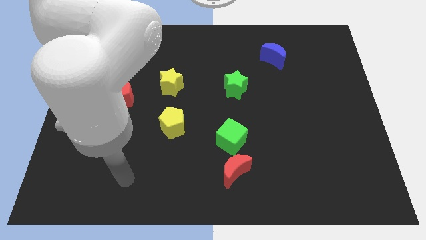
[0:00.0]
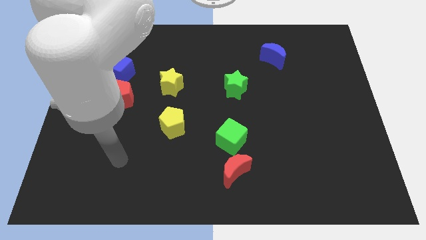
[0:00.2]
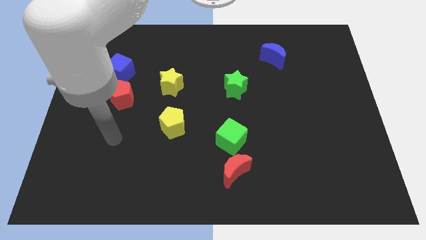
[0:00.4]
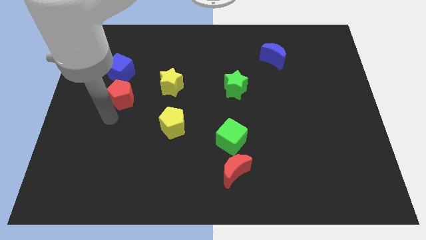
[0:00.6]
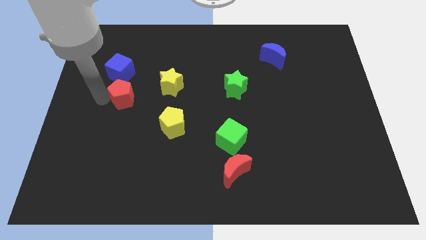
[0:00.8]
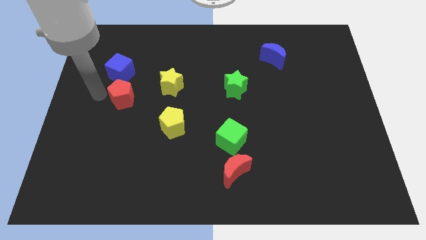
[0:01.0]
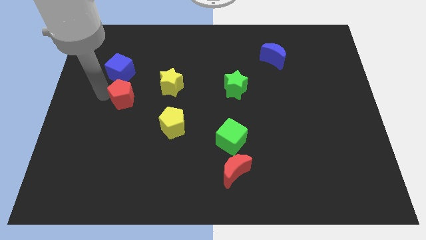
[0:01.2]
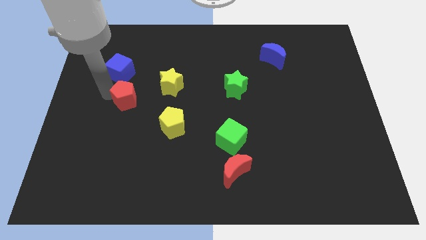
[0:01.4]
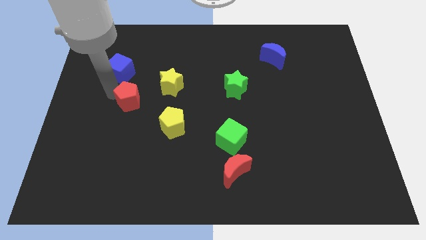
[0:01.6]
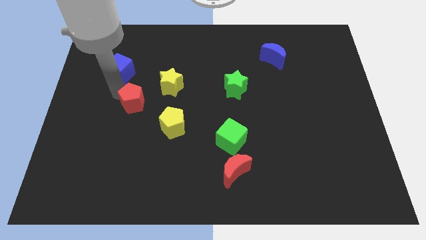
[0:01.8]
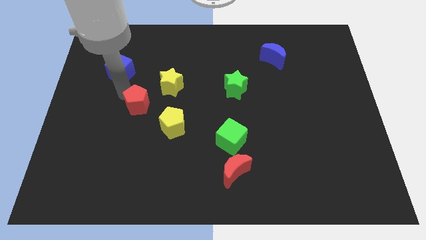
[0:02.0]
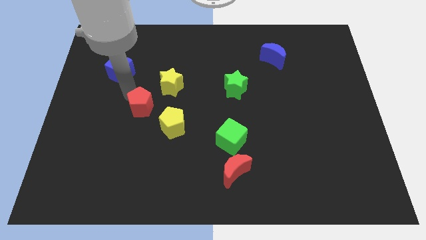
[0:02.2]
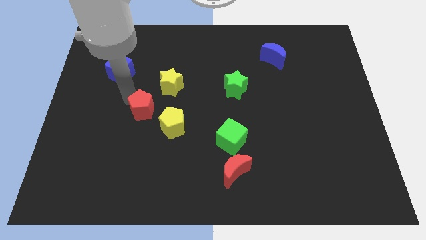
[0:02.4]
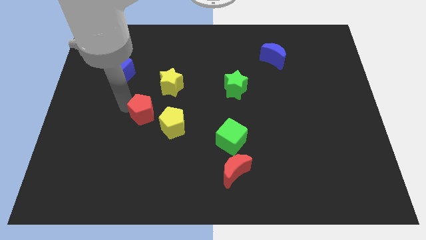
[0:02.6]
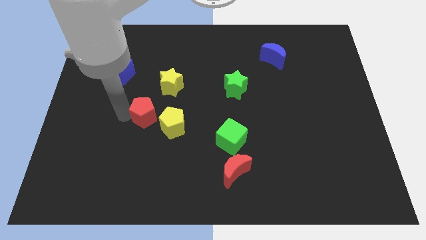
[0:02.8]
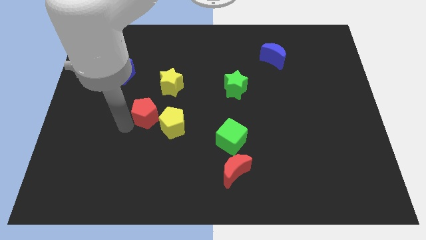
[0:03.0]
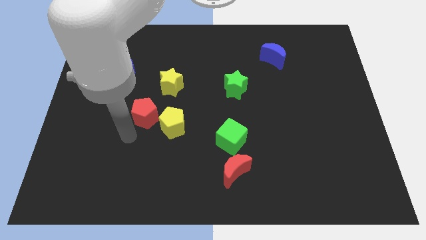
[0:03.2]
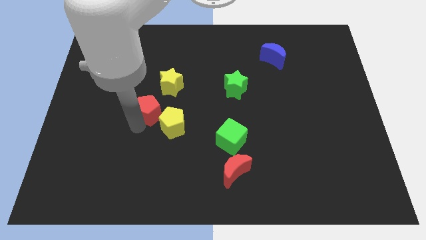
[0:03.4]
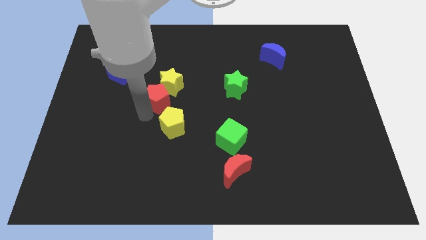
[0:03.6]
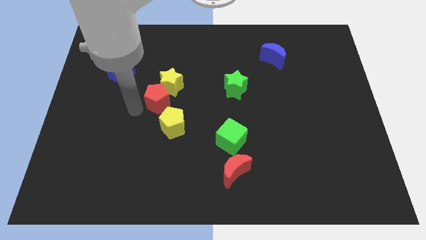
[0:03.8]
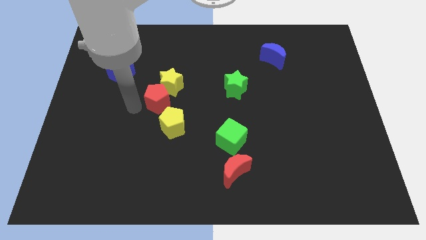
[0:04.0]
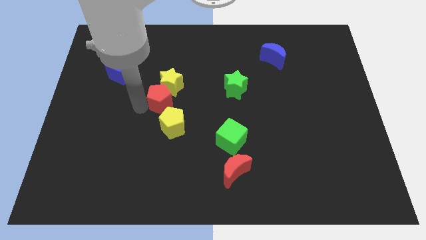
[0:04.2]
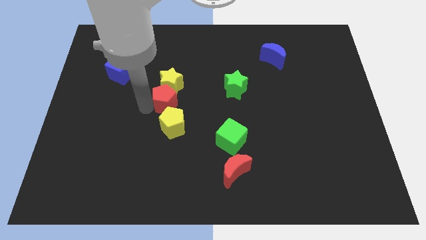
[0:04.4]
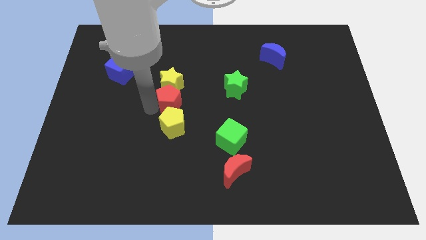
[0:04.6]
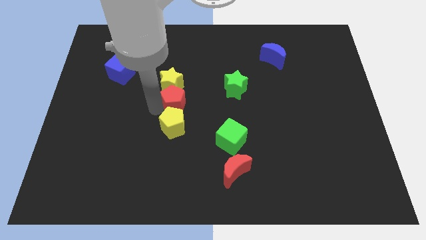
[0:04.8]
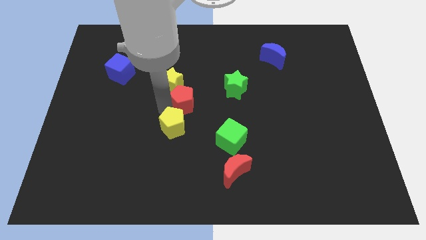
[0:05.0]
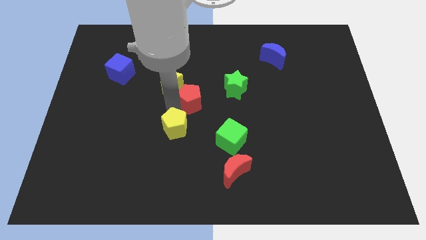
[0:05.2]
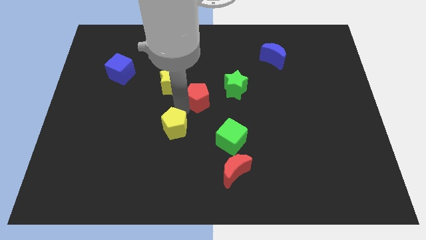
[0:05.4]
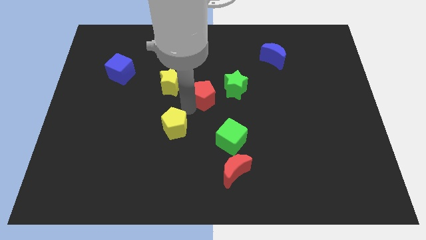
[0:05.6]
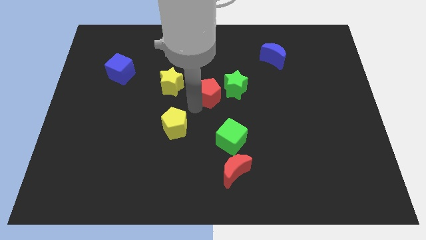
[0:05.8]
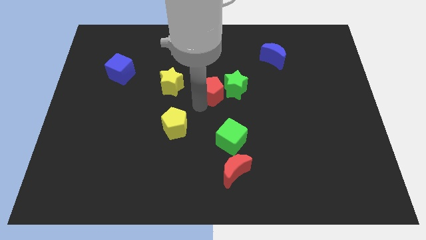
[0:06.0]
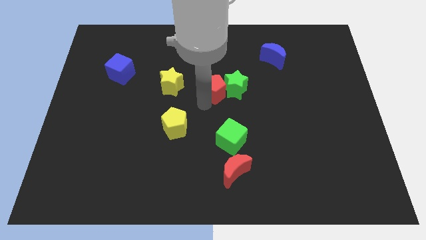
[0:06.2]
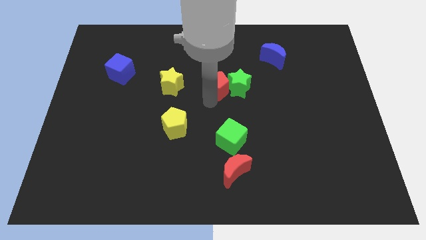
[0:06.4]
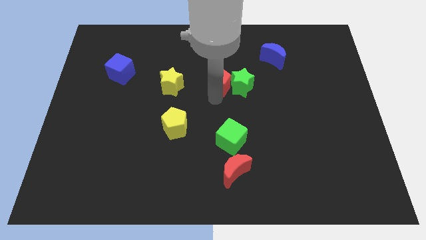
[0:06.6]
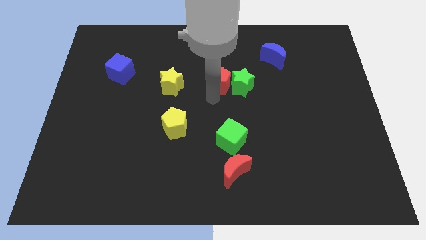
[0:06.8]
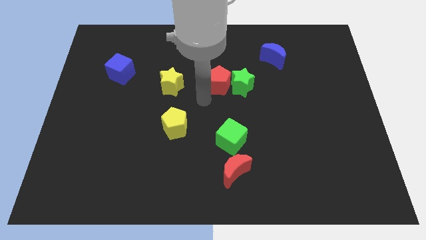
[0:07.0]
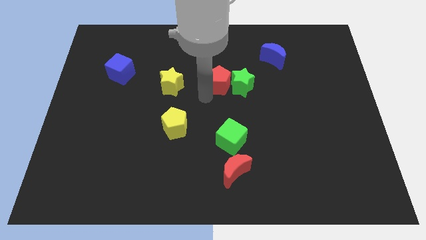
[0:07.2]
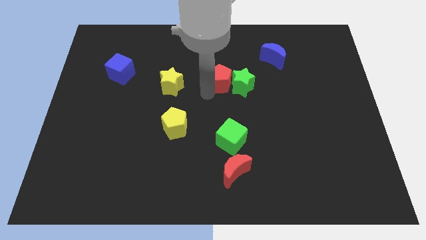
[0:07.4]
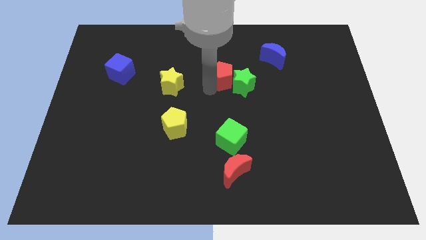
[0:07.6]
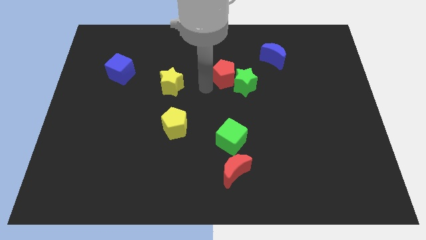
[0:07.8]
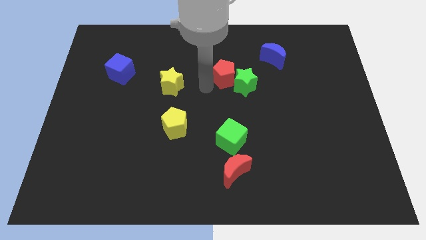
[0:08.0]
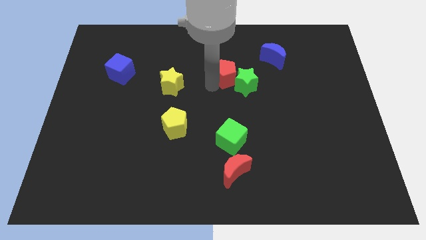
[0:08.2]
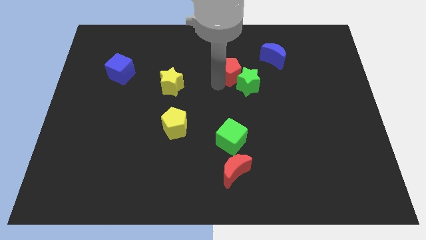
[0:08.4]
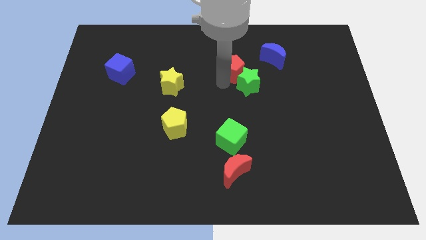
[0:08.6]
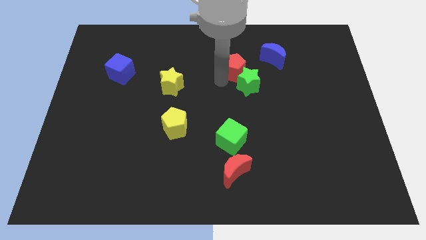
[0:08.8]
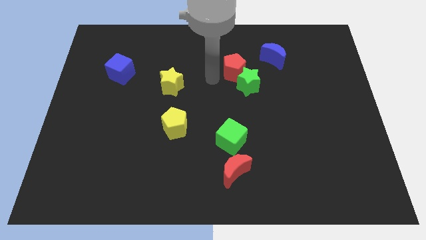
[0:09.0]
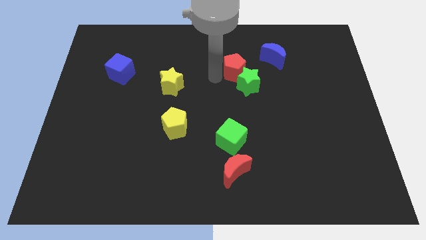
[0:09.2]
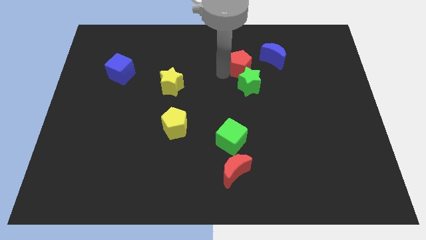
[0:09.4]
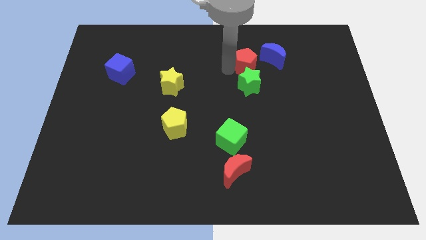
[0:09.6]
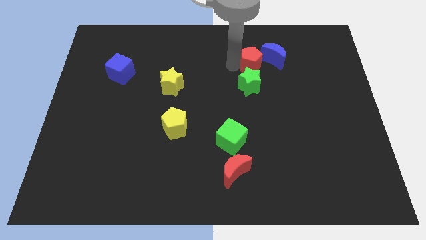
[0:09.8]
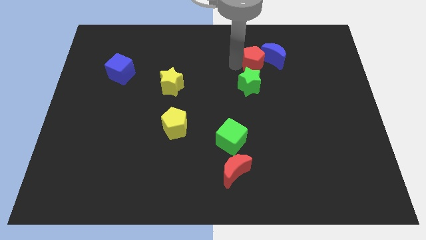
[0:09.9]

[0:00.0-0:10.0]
push the red pentagon next to the blue moon

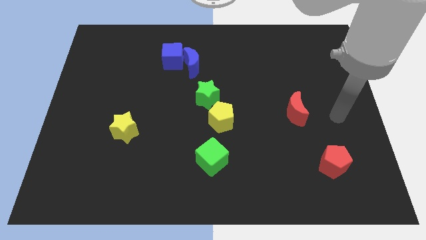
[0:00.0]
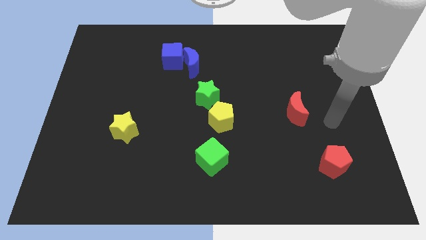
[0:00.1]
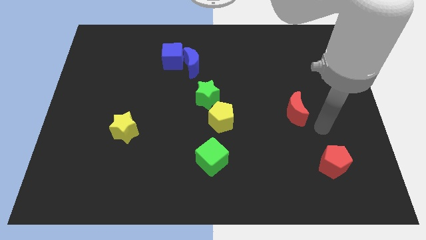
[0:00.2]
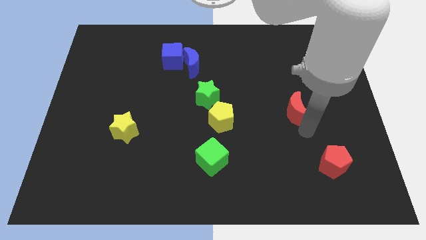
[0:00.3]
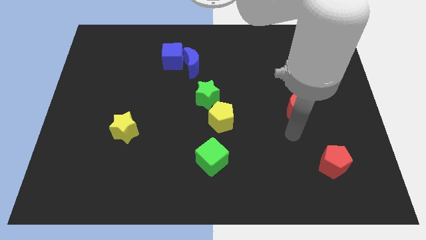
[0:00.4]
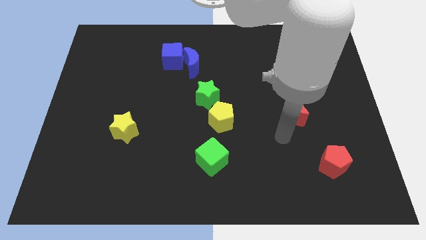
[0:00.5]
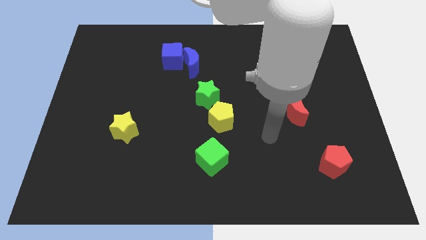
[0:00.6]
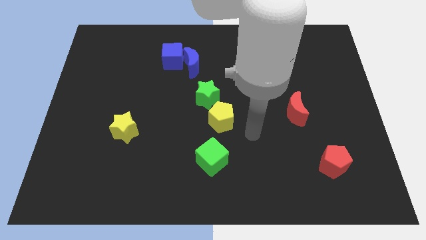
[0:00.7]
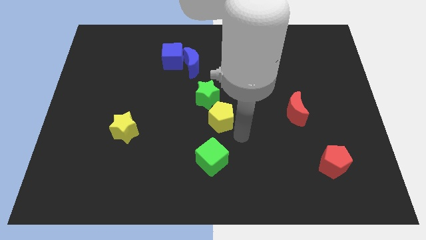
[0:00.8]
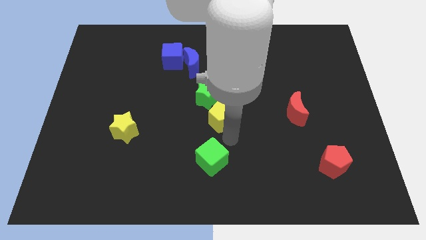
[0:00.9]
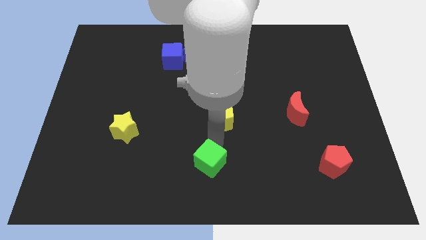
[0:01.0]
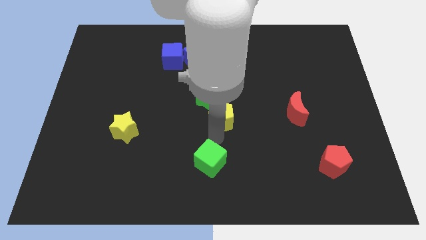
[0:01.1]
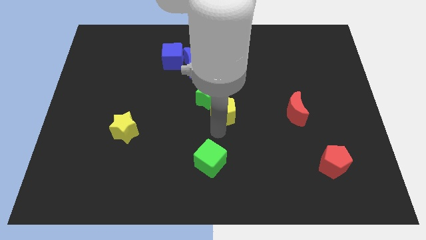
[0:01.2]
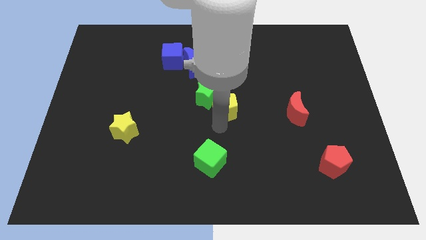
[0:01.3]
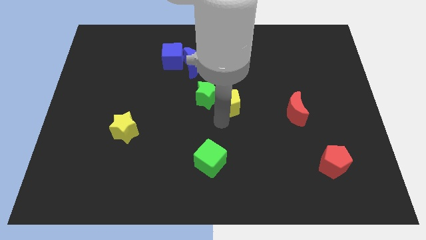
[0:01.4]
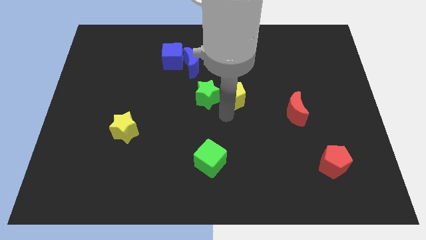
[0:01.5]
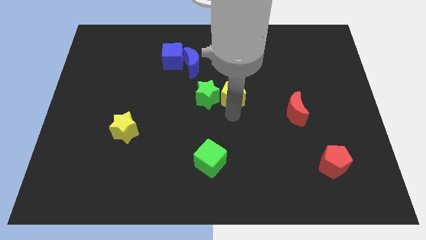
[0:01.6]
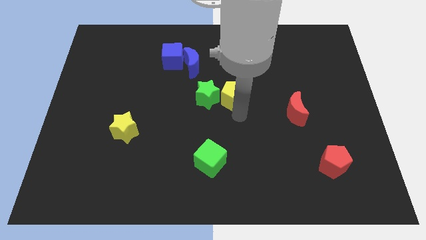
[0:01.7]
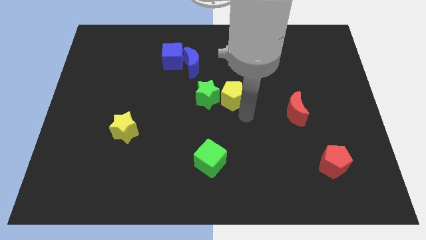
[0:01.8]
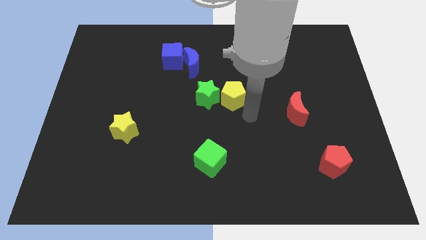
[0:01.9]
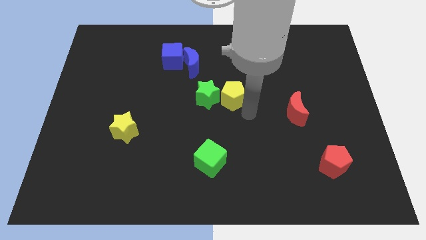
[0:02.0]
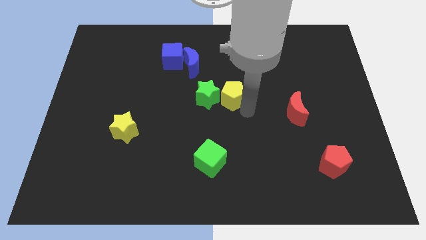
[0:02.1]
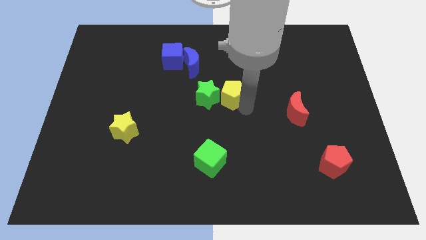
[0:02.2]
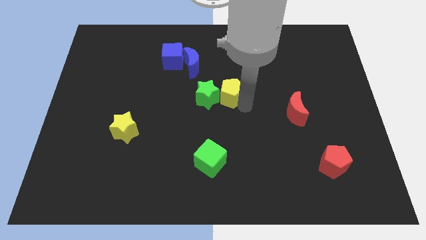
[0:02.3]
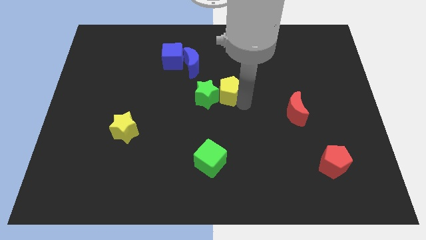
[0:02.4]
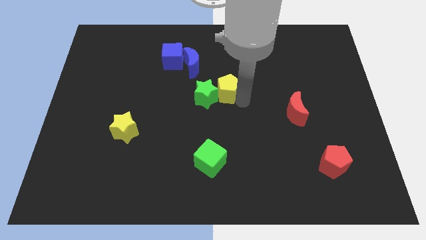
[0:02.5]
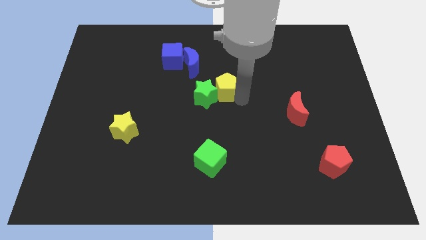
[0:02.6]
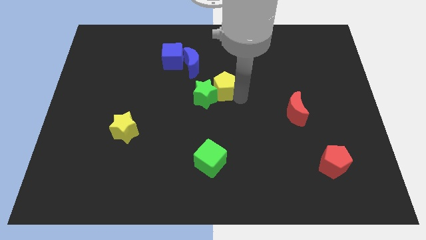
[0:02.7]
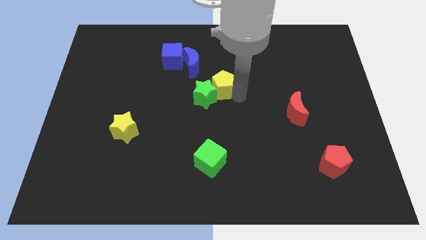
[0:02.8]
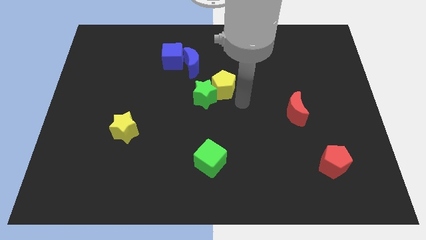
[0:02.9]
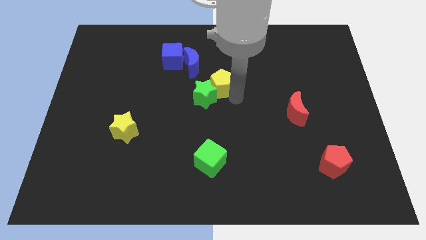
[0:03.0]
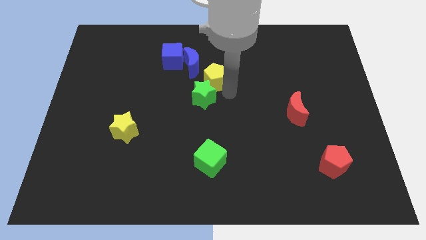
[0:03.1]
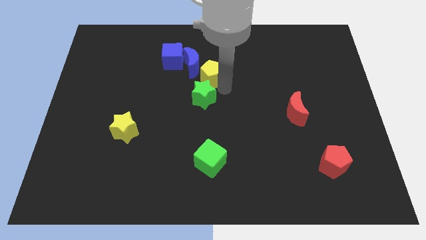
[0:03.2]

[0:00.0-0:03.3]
push the yellow pentagon towards the blue moon
